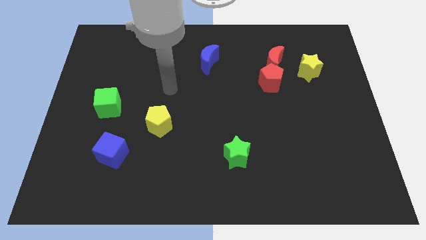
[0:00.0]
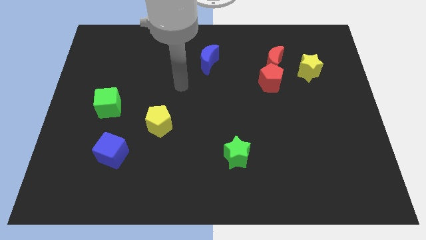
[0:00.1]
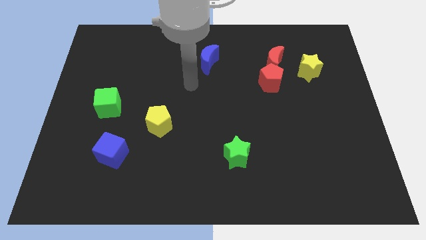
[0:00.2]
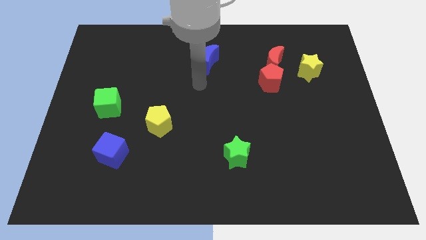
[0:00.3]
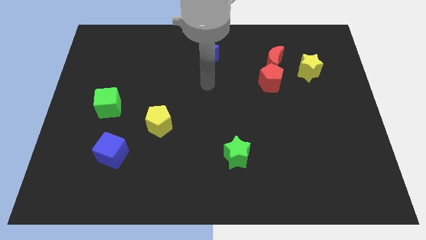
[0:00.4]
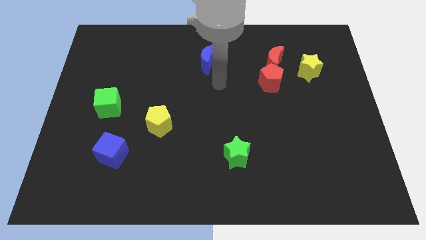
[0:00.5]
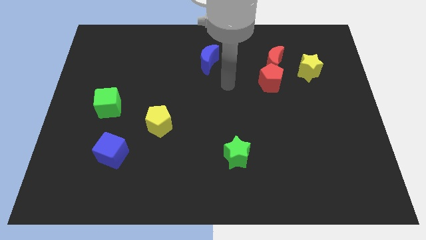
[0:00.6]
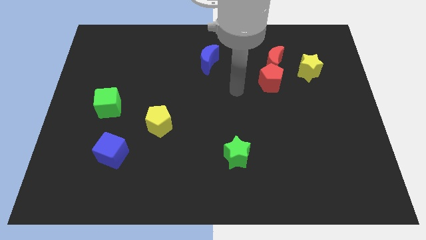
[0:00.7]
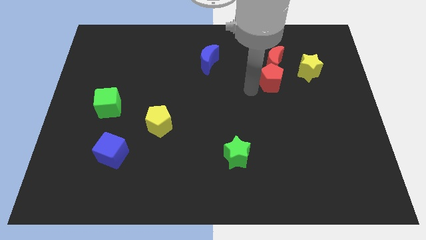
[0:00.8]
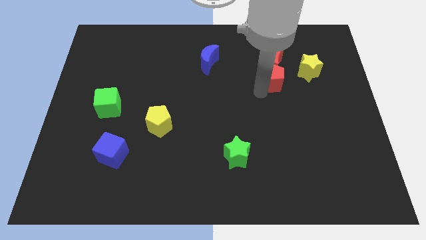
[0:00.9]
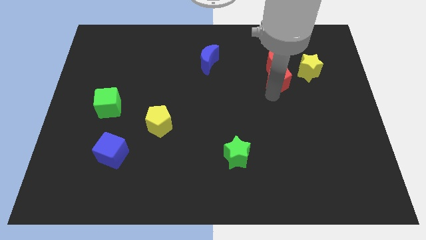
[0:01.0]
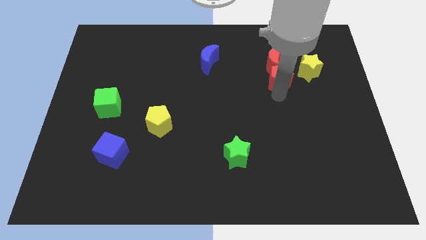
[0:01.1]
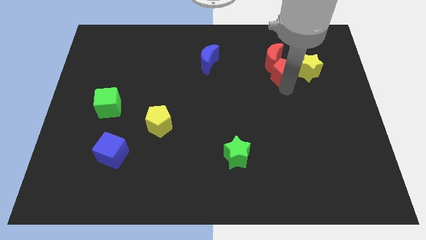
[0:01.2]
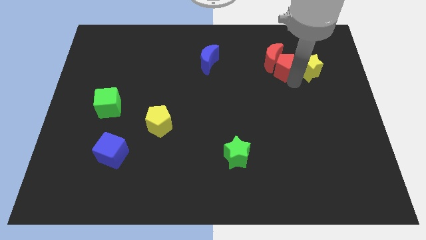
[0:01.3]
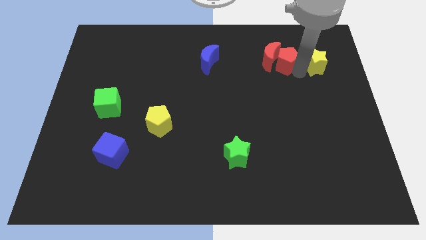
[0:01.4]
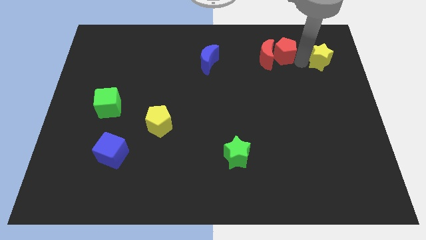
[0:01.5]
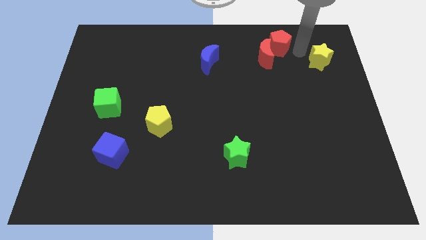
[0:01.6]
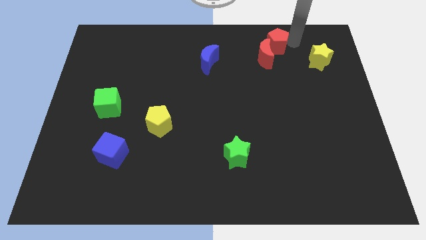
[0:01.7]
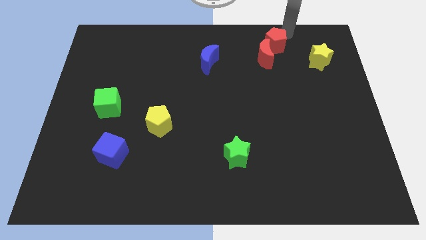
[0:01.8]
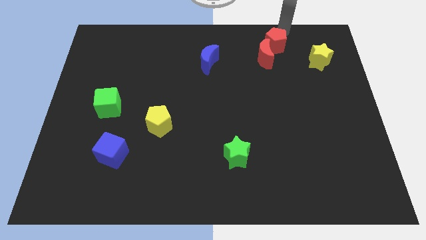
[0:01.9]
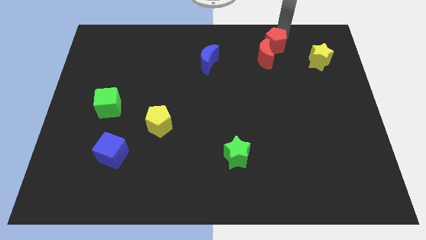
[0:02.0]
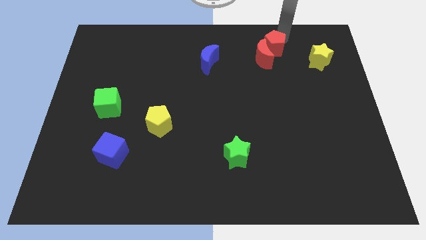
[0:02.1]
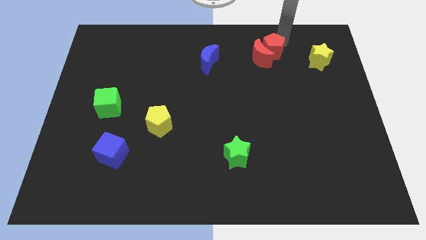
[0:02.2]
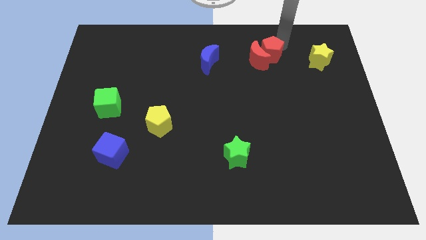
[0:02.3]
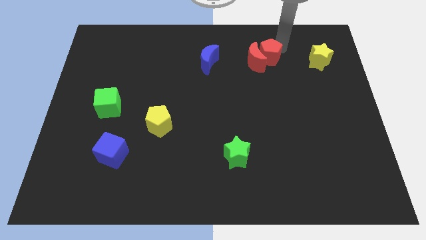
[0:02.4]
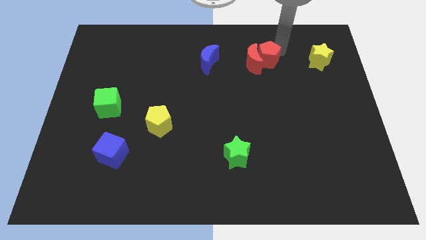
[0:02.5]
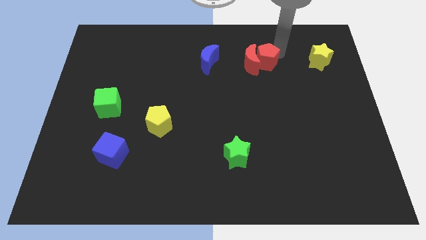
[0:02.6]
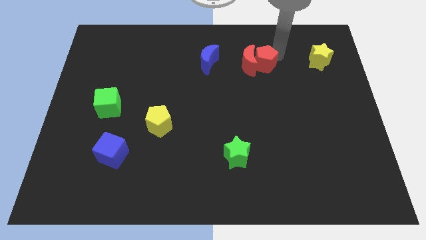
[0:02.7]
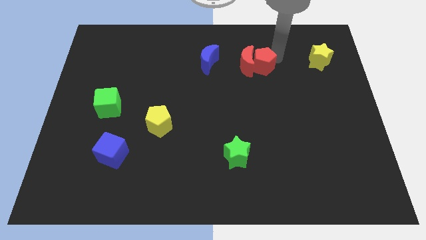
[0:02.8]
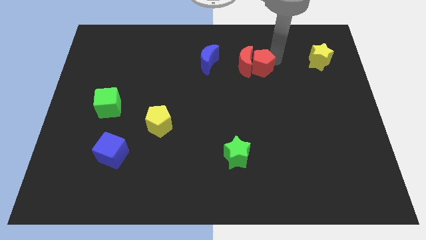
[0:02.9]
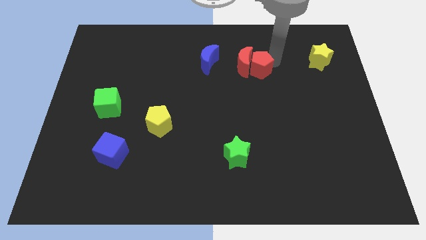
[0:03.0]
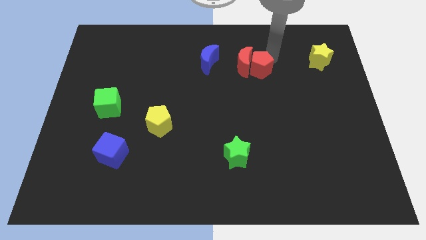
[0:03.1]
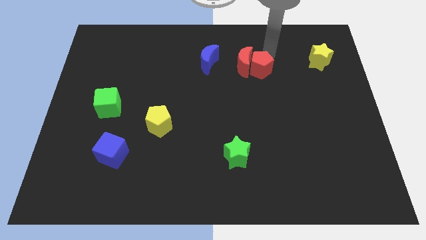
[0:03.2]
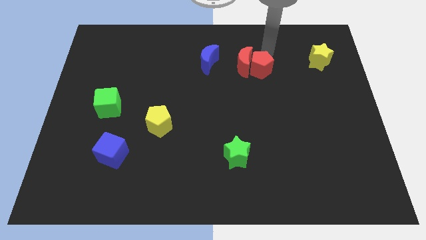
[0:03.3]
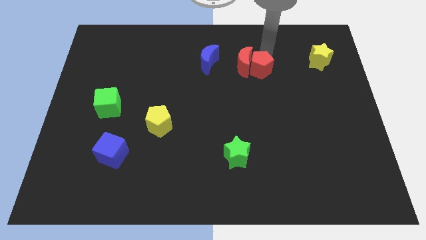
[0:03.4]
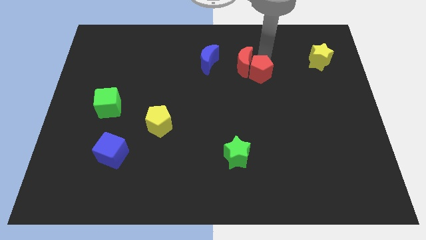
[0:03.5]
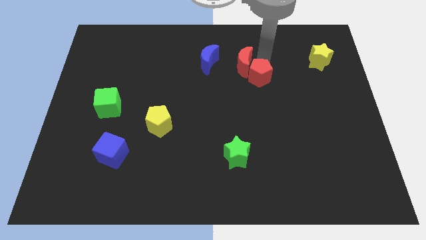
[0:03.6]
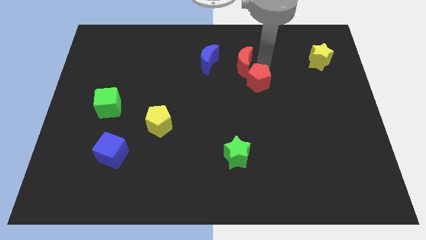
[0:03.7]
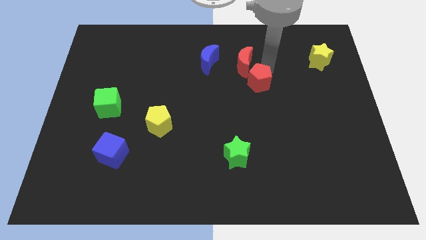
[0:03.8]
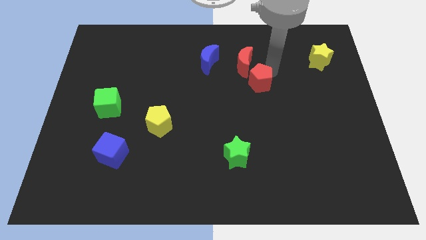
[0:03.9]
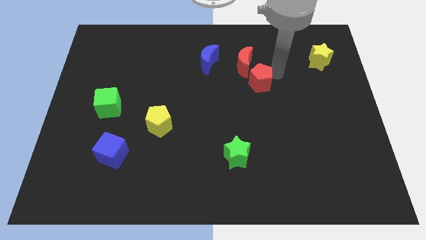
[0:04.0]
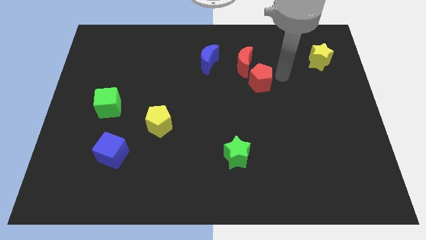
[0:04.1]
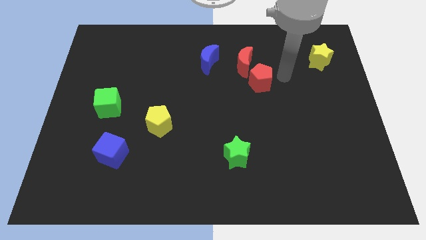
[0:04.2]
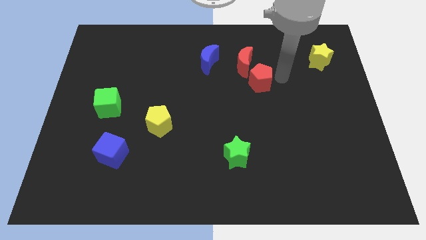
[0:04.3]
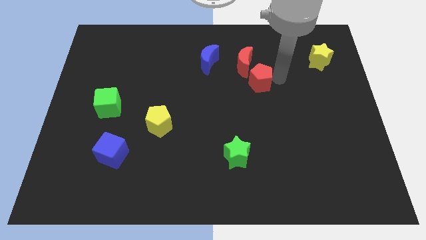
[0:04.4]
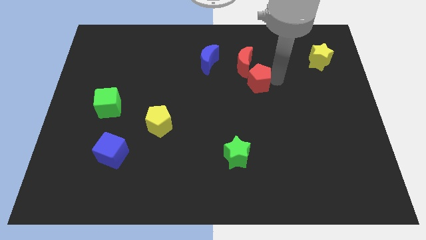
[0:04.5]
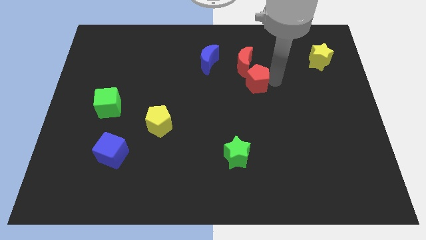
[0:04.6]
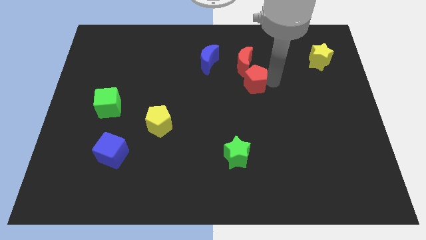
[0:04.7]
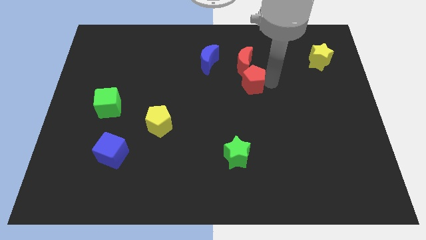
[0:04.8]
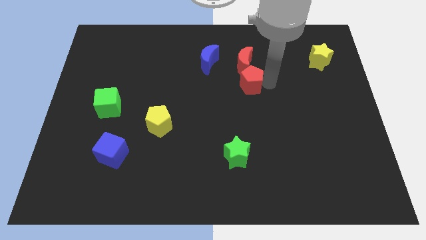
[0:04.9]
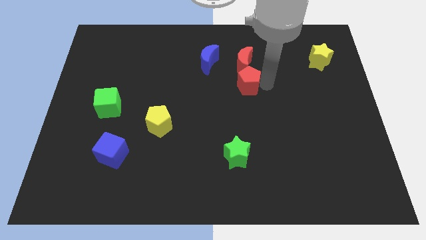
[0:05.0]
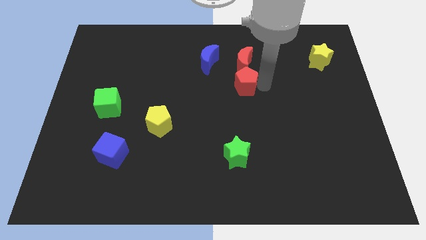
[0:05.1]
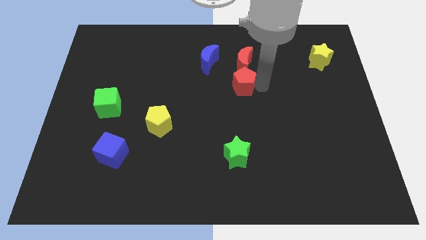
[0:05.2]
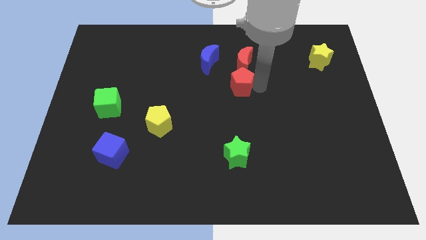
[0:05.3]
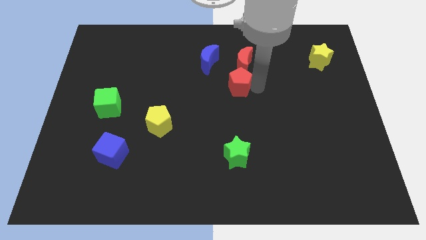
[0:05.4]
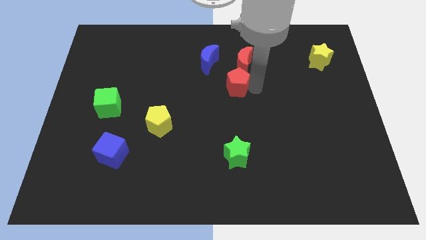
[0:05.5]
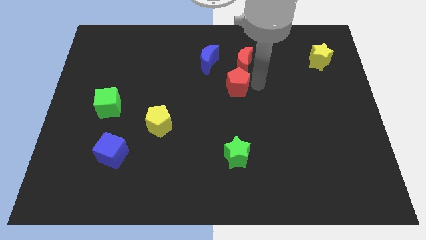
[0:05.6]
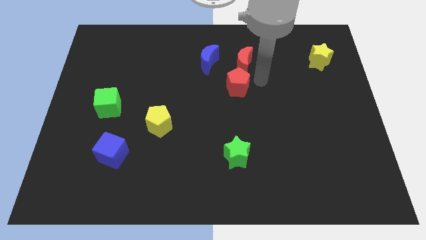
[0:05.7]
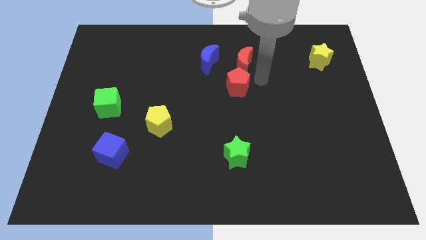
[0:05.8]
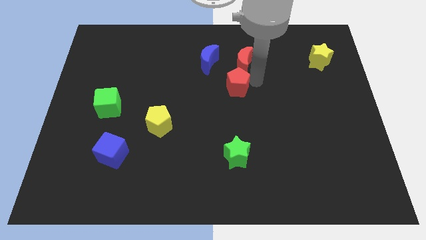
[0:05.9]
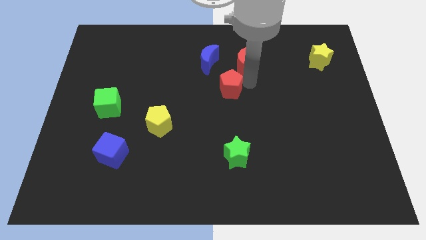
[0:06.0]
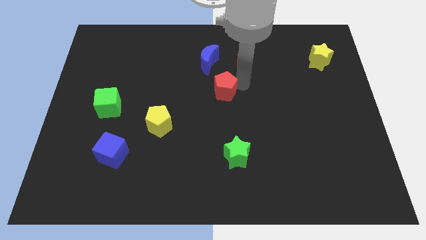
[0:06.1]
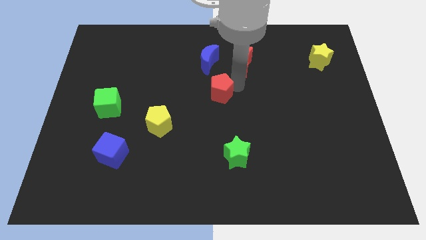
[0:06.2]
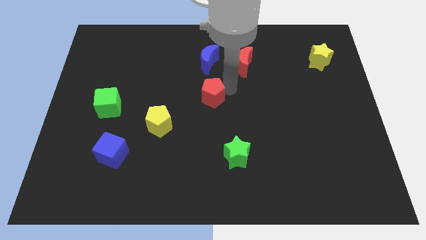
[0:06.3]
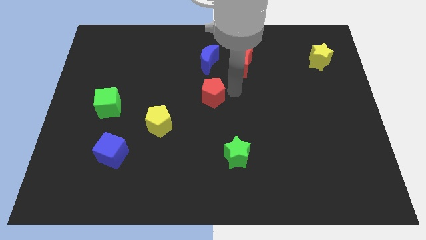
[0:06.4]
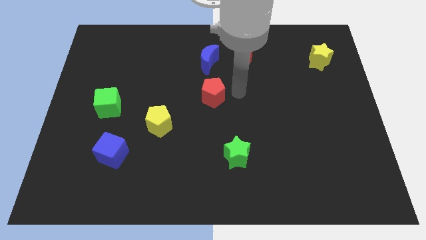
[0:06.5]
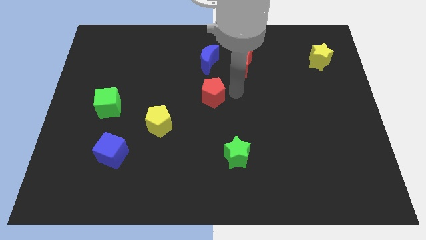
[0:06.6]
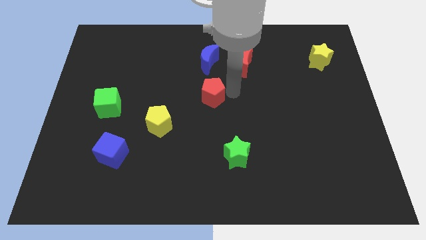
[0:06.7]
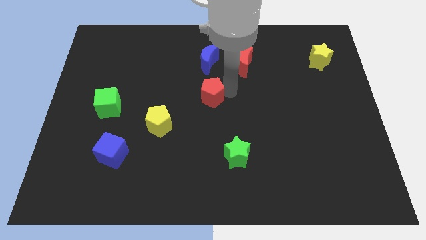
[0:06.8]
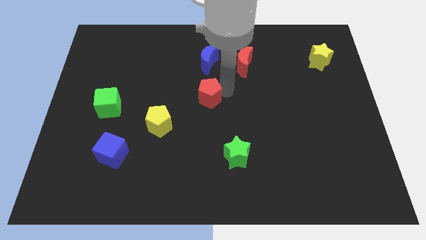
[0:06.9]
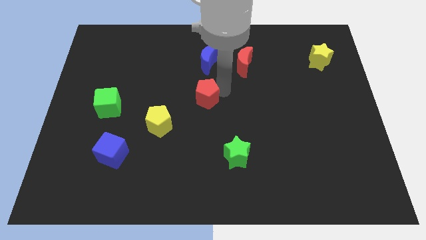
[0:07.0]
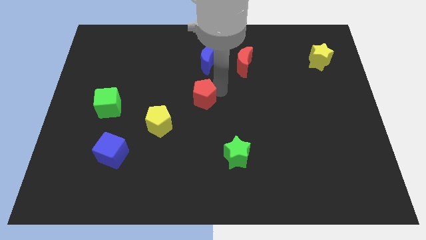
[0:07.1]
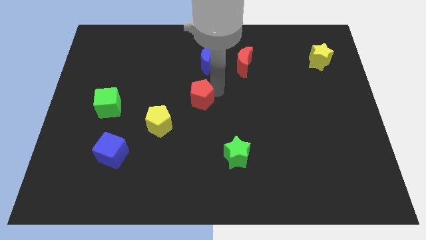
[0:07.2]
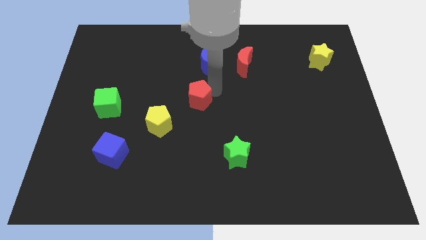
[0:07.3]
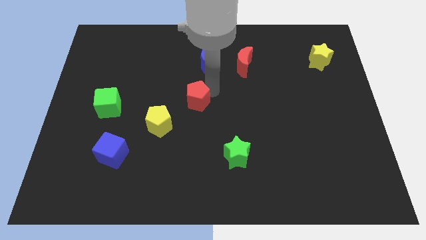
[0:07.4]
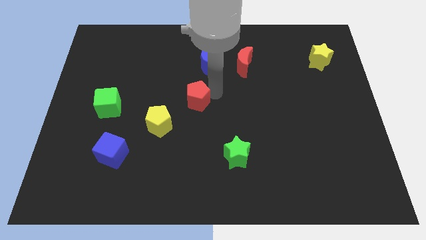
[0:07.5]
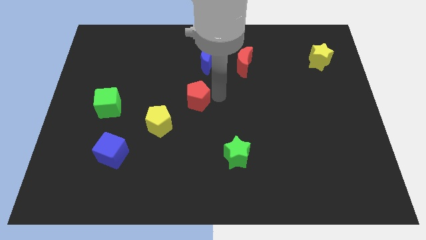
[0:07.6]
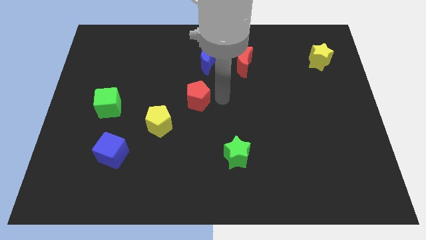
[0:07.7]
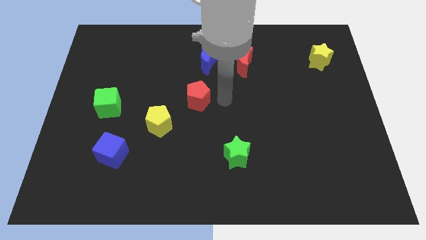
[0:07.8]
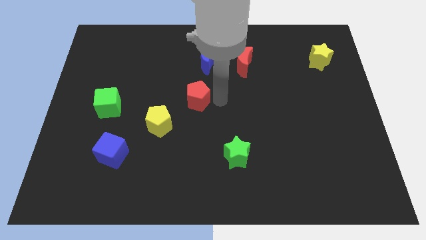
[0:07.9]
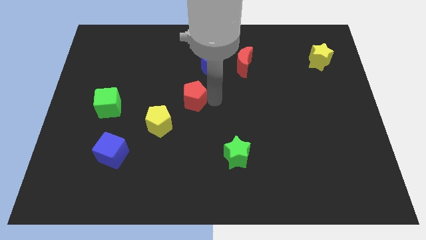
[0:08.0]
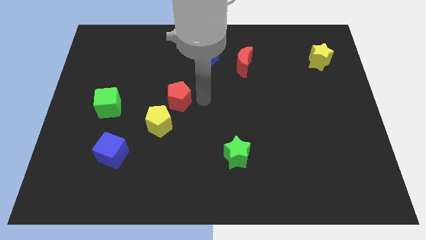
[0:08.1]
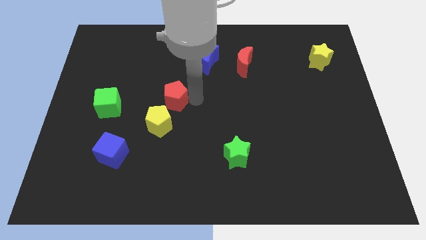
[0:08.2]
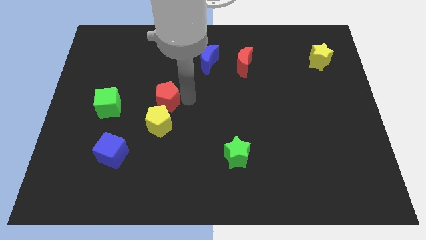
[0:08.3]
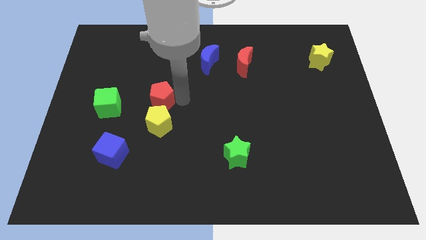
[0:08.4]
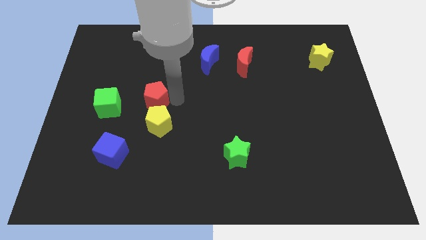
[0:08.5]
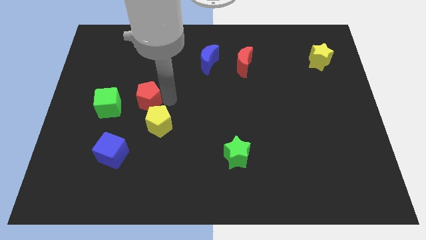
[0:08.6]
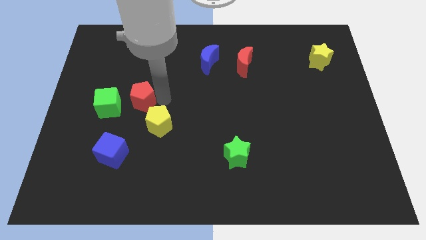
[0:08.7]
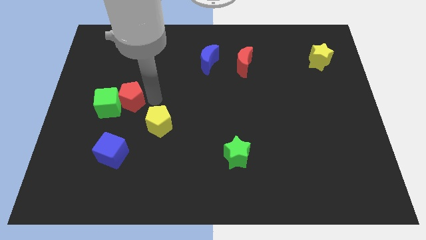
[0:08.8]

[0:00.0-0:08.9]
move the red pentagon towards the green cube
